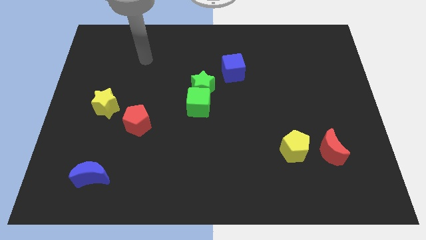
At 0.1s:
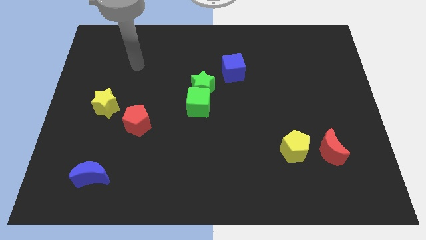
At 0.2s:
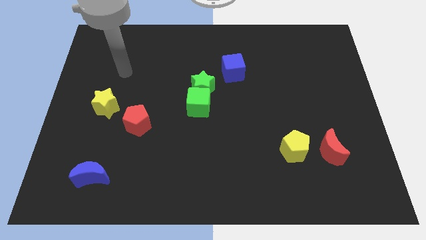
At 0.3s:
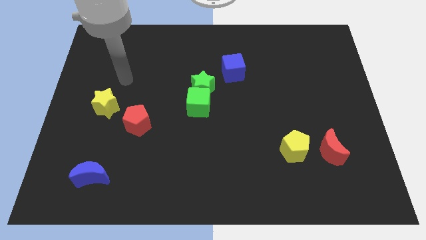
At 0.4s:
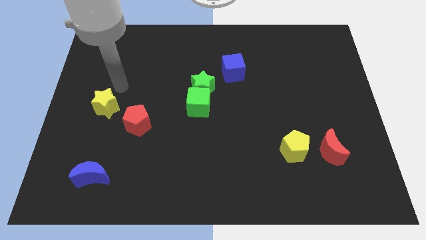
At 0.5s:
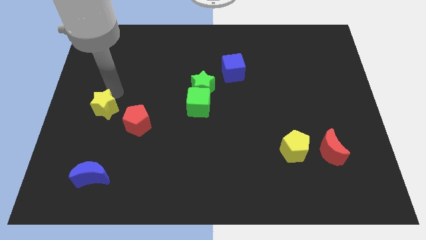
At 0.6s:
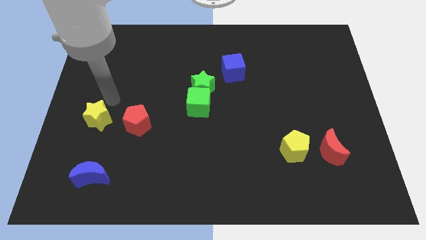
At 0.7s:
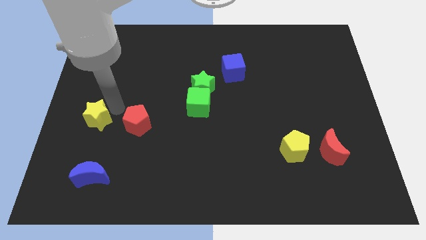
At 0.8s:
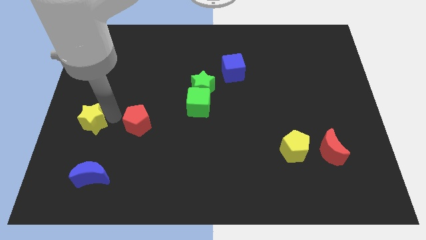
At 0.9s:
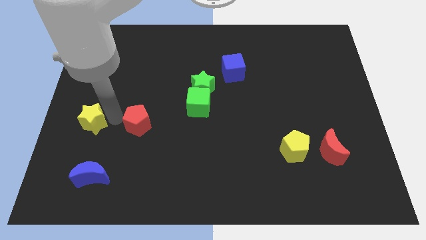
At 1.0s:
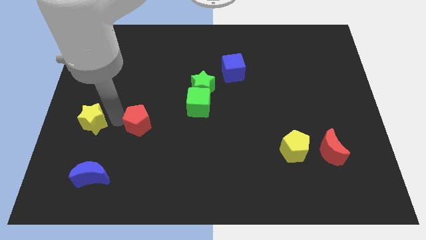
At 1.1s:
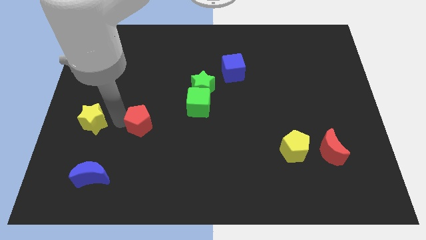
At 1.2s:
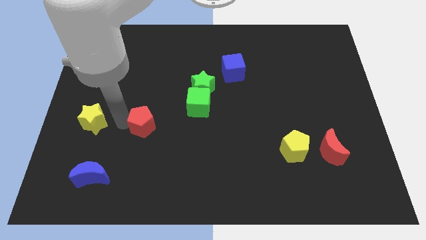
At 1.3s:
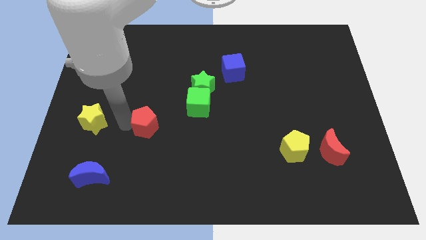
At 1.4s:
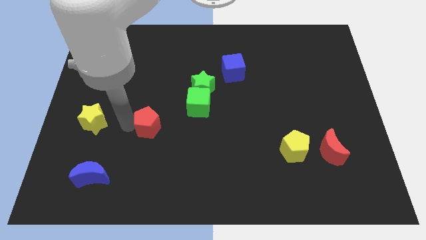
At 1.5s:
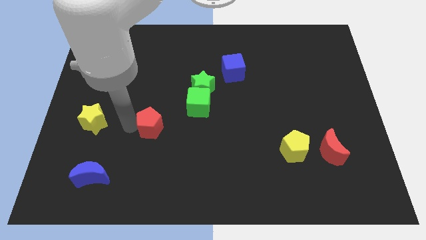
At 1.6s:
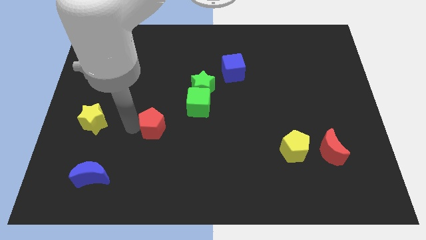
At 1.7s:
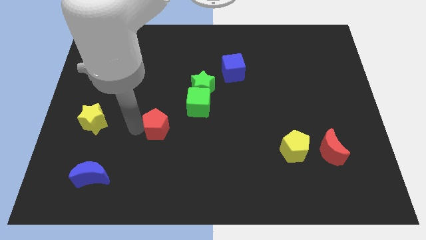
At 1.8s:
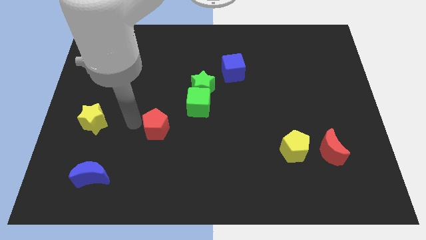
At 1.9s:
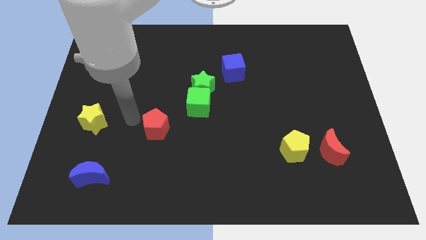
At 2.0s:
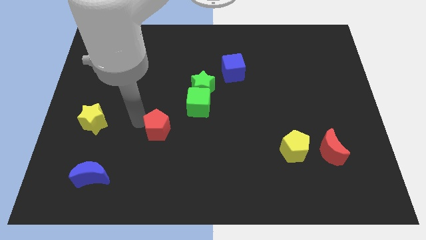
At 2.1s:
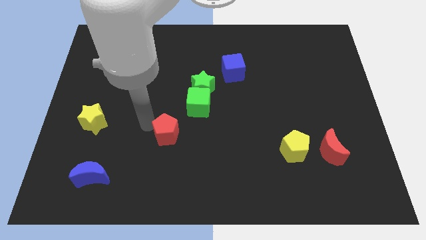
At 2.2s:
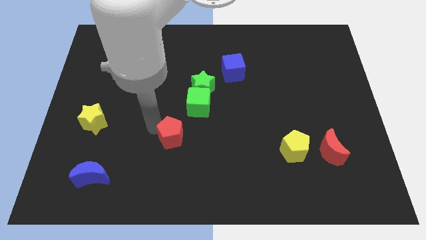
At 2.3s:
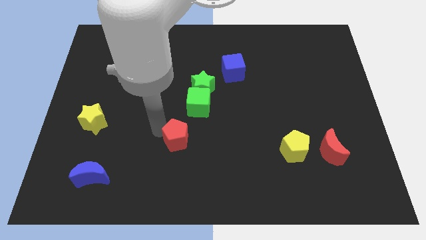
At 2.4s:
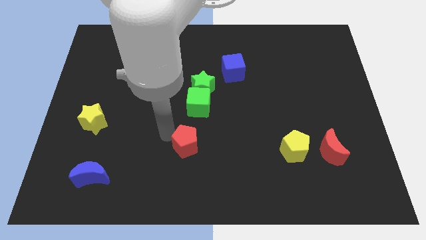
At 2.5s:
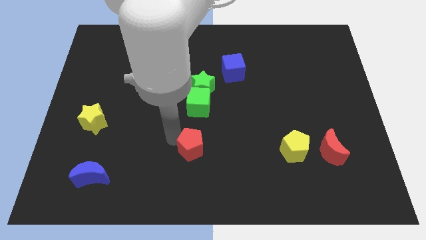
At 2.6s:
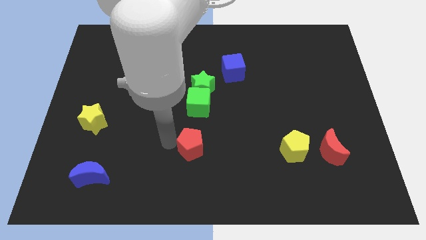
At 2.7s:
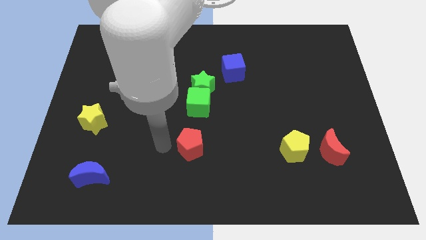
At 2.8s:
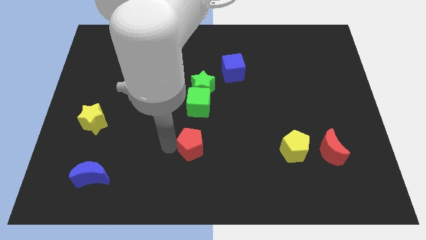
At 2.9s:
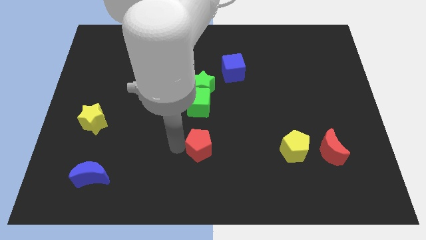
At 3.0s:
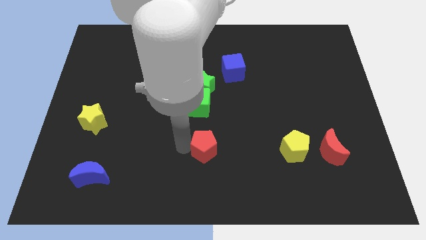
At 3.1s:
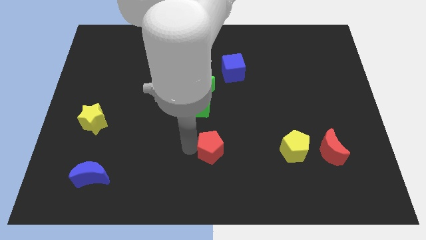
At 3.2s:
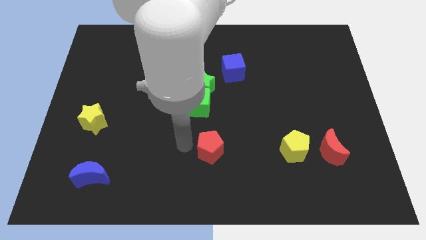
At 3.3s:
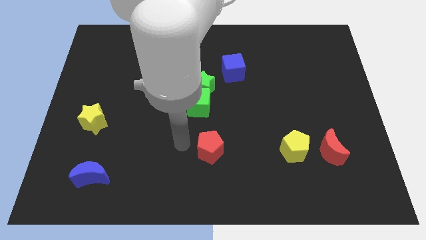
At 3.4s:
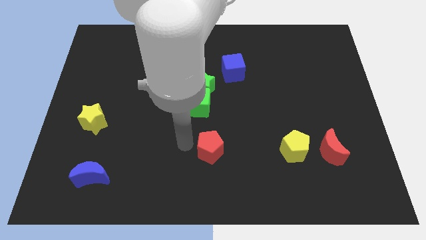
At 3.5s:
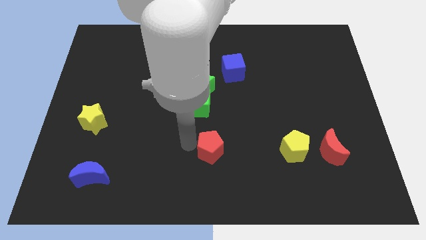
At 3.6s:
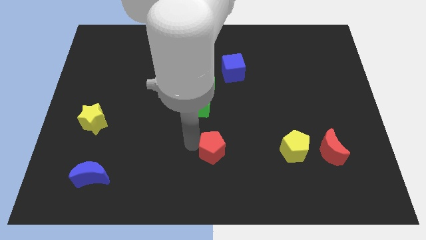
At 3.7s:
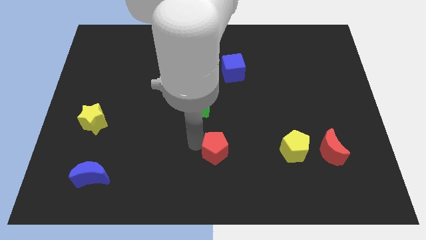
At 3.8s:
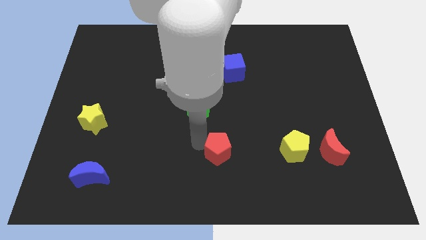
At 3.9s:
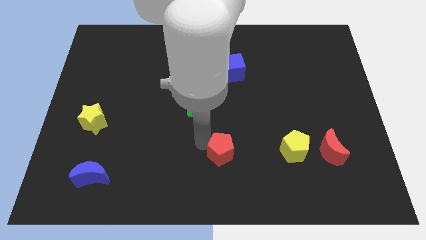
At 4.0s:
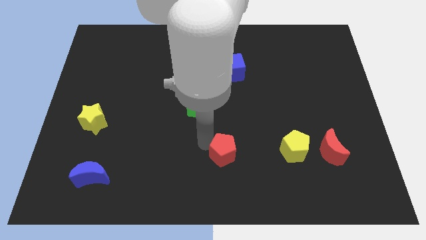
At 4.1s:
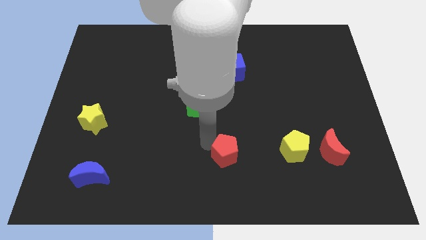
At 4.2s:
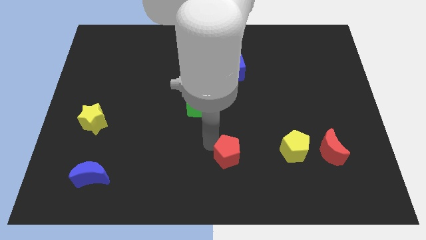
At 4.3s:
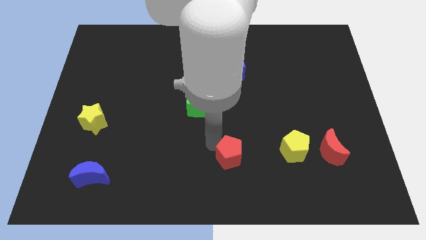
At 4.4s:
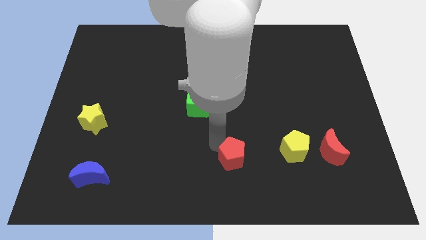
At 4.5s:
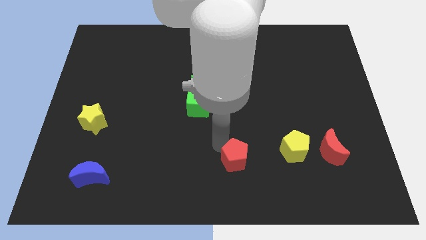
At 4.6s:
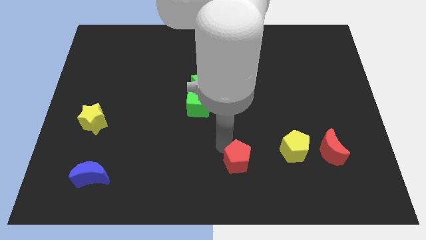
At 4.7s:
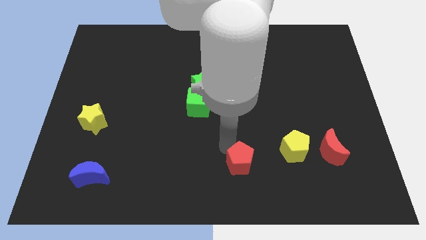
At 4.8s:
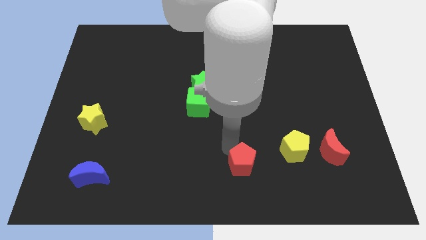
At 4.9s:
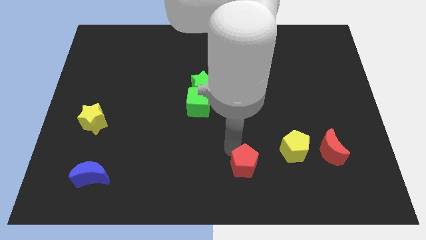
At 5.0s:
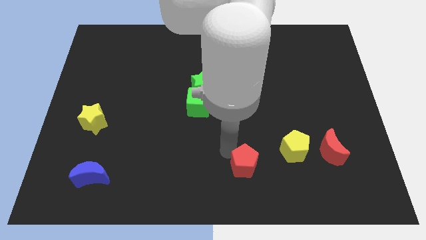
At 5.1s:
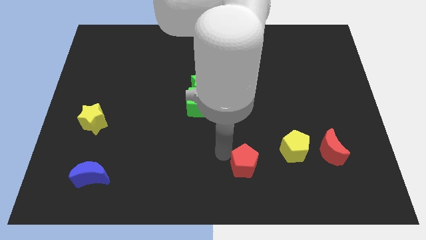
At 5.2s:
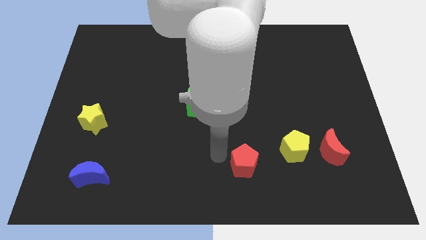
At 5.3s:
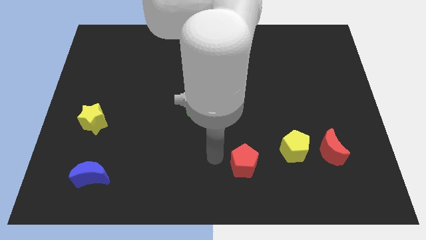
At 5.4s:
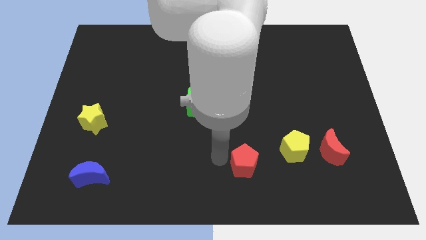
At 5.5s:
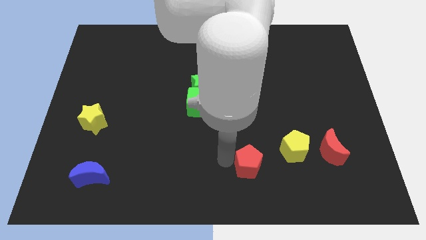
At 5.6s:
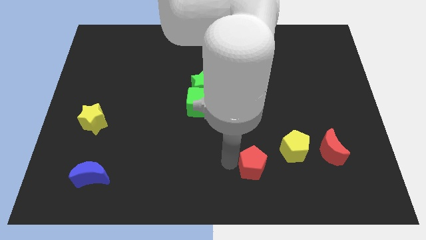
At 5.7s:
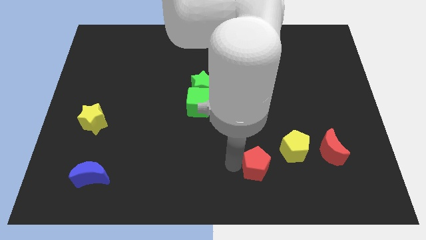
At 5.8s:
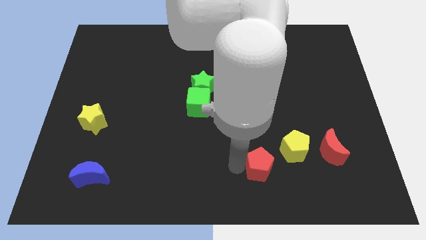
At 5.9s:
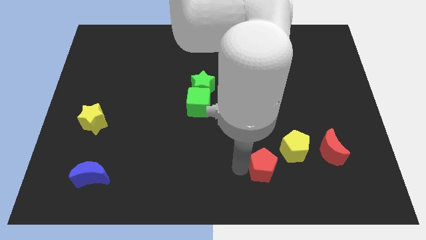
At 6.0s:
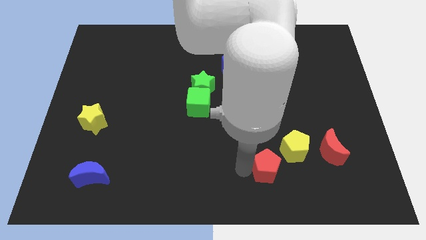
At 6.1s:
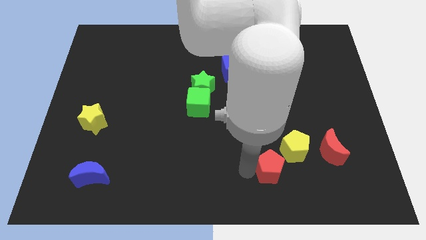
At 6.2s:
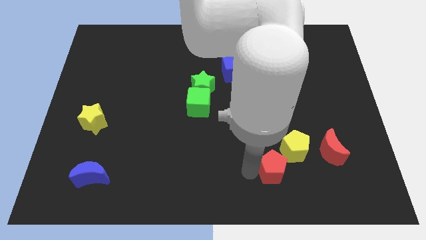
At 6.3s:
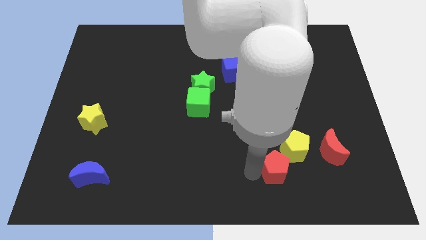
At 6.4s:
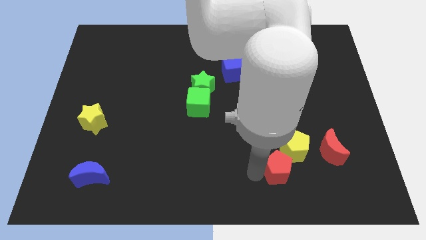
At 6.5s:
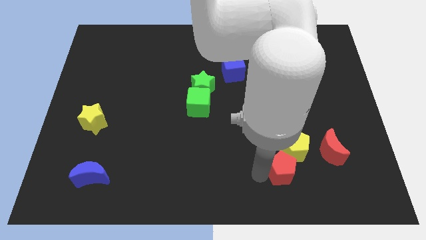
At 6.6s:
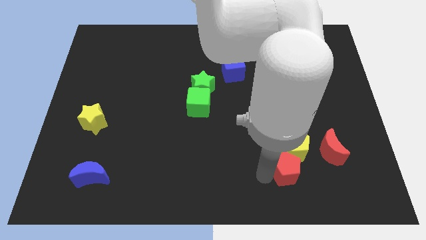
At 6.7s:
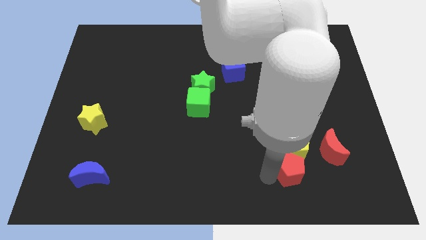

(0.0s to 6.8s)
push the red pentagon to the bottom right of the yellow pentagon
